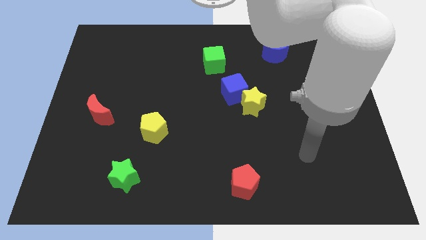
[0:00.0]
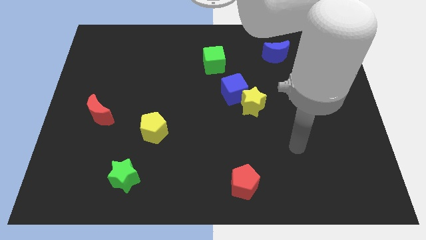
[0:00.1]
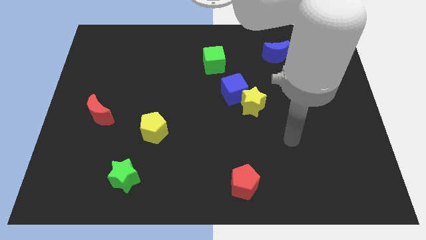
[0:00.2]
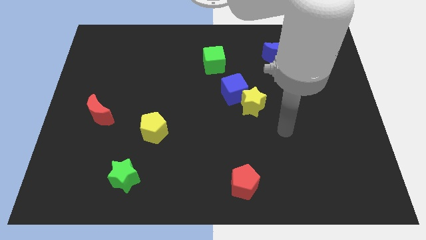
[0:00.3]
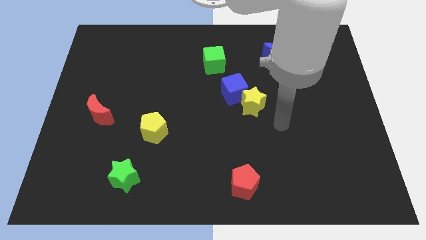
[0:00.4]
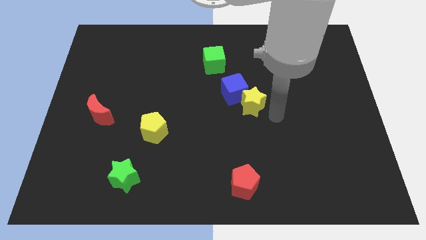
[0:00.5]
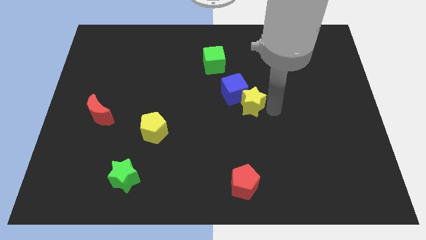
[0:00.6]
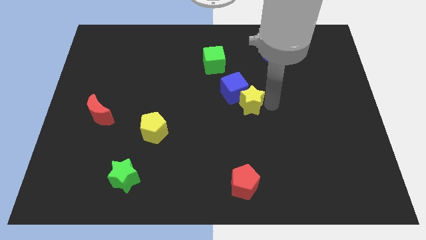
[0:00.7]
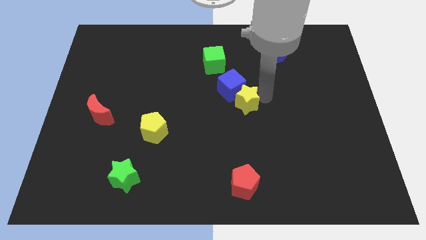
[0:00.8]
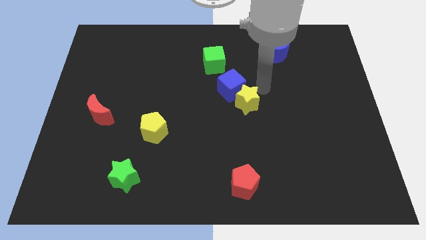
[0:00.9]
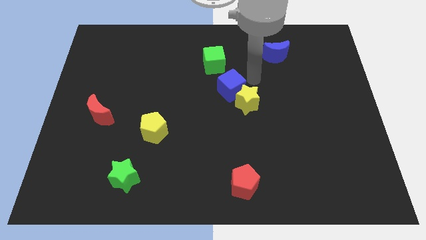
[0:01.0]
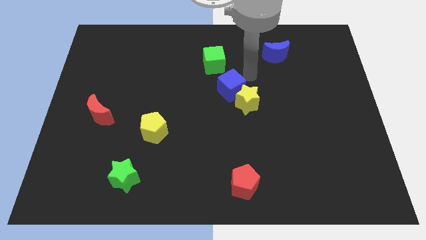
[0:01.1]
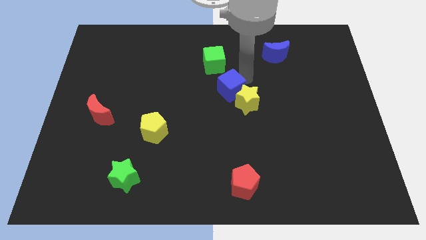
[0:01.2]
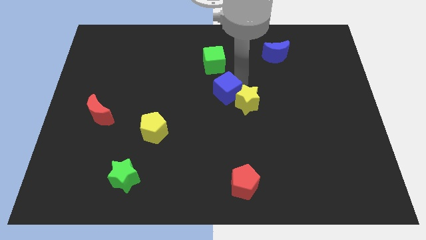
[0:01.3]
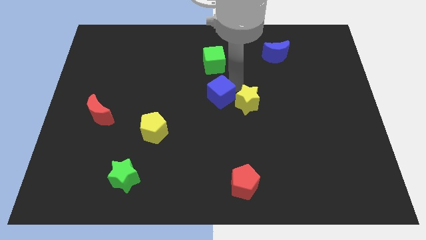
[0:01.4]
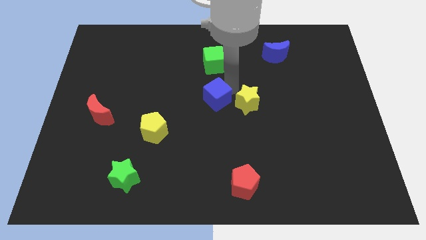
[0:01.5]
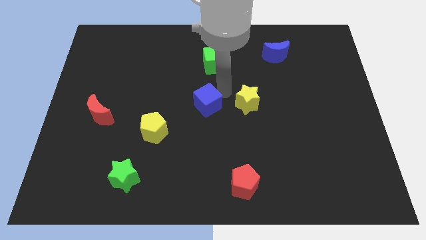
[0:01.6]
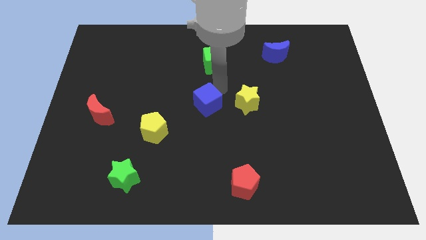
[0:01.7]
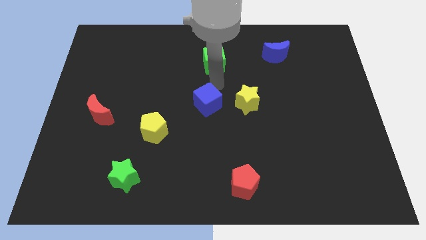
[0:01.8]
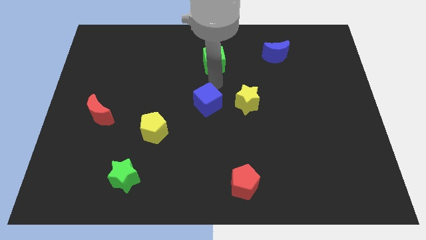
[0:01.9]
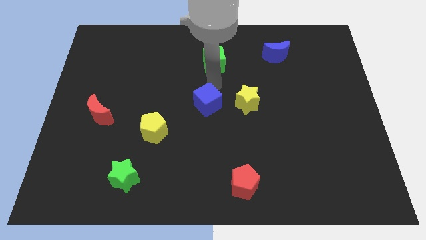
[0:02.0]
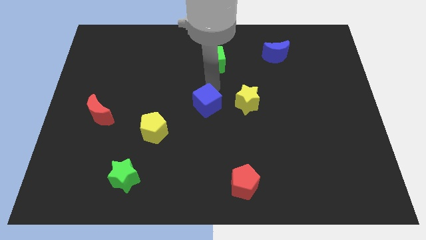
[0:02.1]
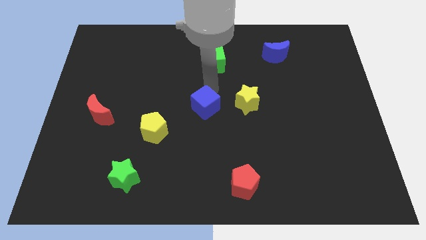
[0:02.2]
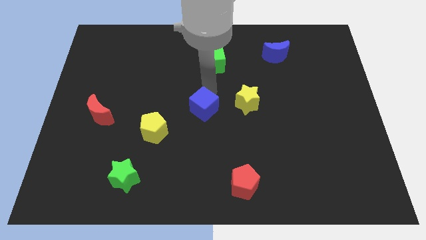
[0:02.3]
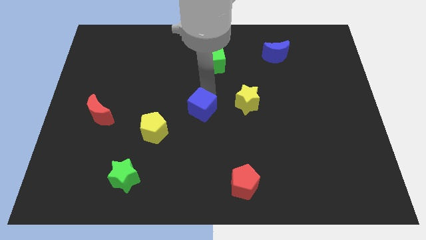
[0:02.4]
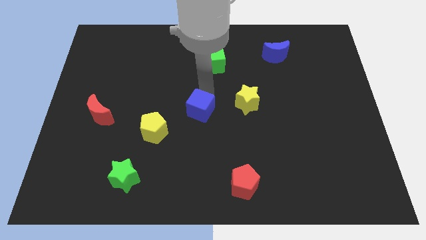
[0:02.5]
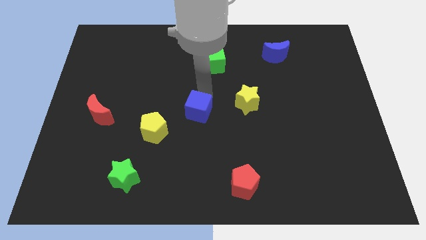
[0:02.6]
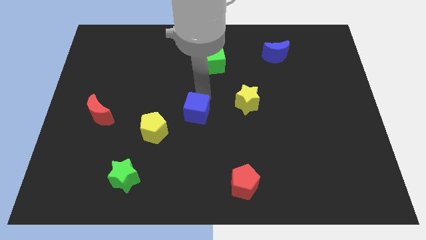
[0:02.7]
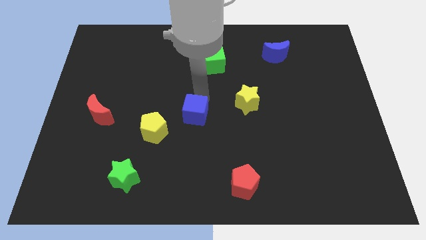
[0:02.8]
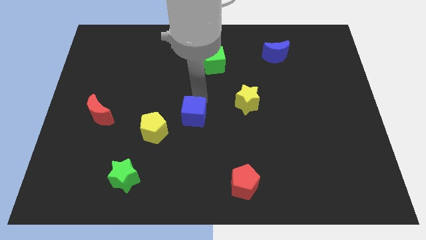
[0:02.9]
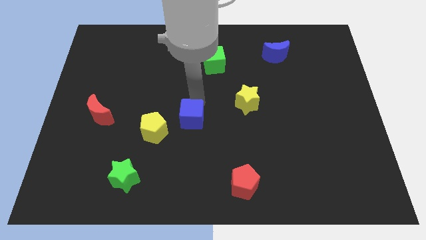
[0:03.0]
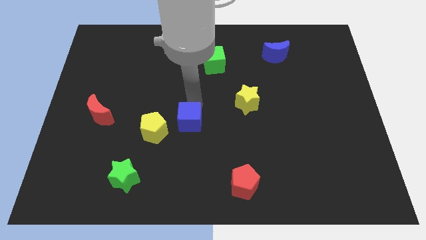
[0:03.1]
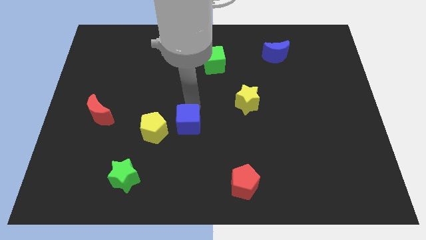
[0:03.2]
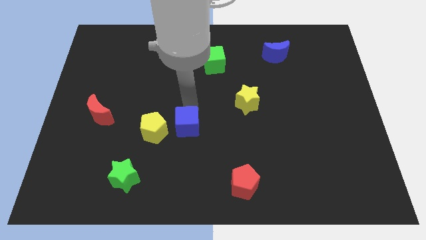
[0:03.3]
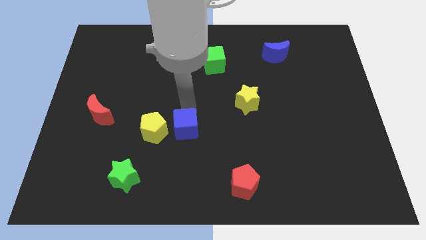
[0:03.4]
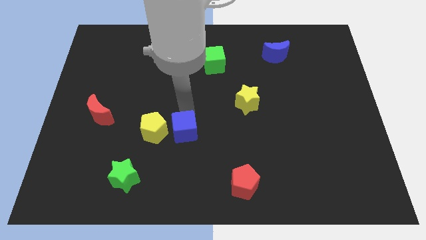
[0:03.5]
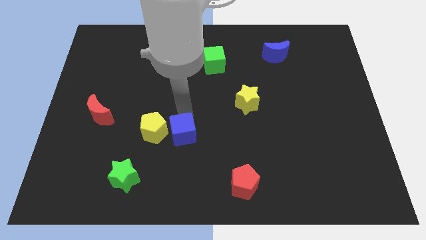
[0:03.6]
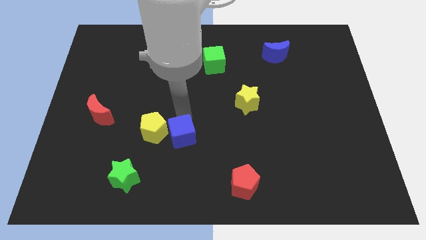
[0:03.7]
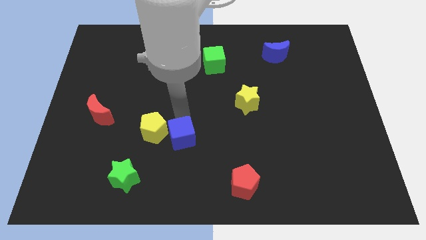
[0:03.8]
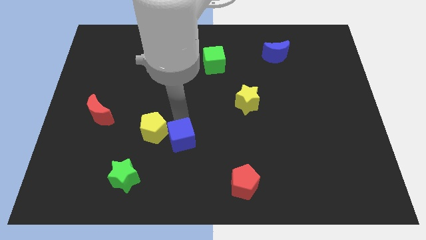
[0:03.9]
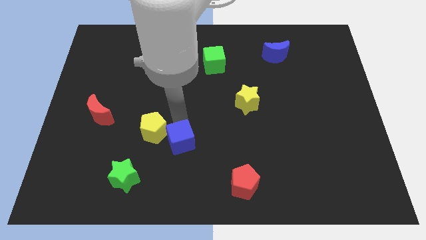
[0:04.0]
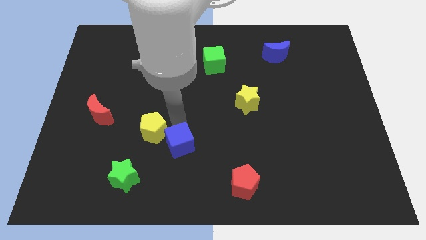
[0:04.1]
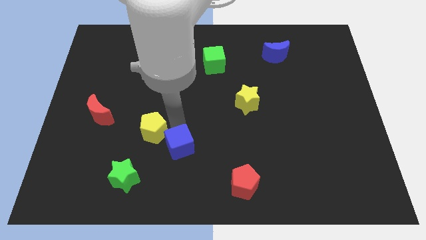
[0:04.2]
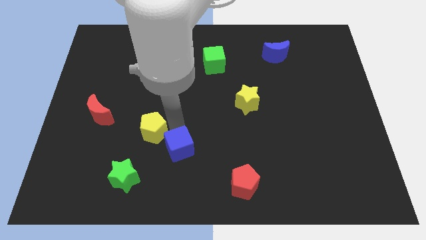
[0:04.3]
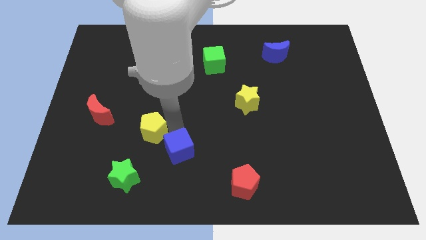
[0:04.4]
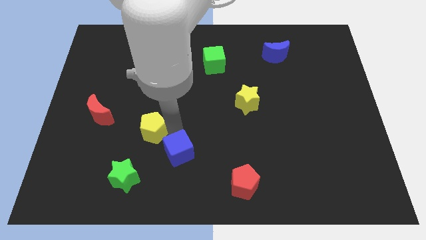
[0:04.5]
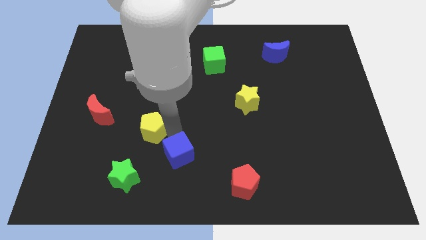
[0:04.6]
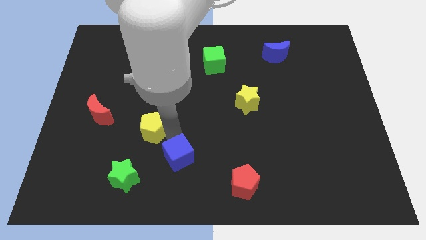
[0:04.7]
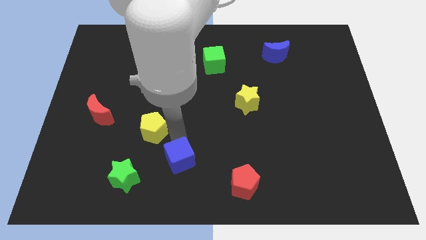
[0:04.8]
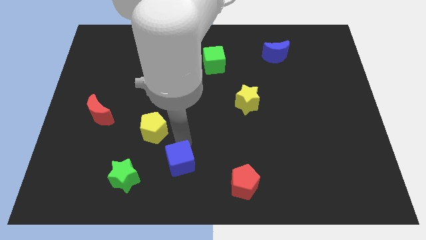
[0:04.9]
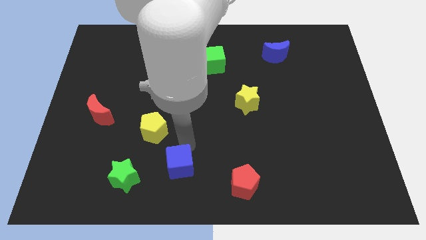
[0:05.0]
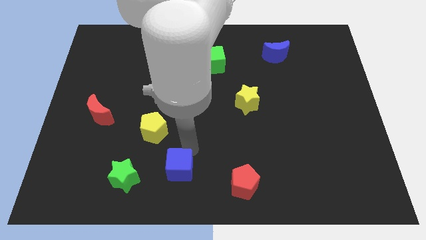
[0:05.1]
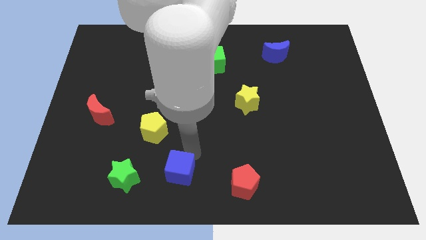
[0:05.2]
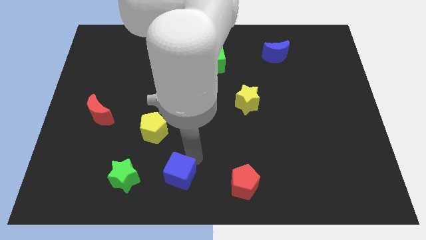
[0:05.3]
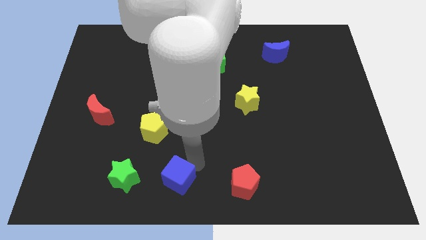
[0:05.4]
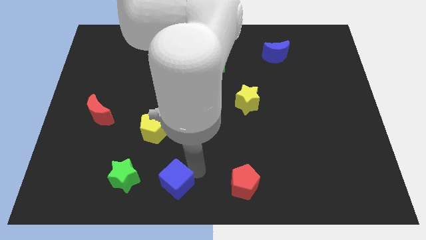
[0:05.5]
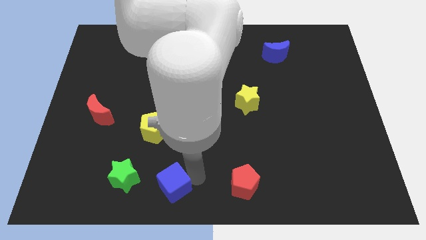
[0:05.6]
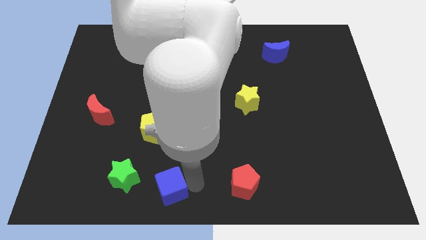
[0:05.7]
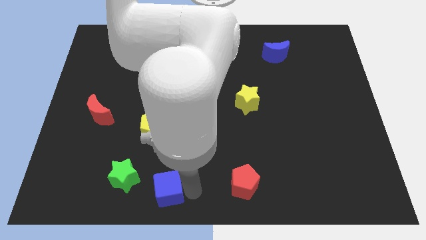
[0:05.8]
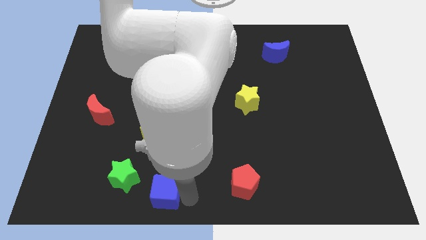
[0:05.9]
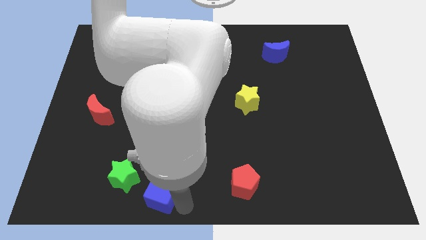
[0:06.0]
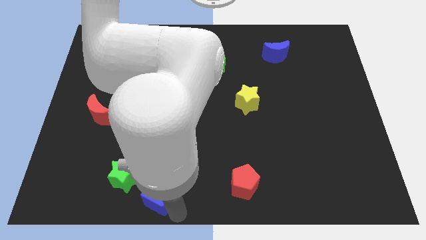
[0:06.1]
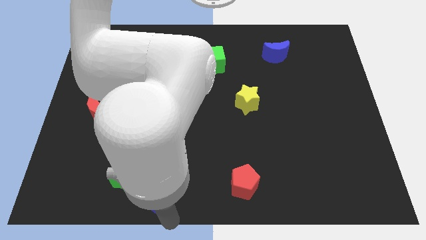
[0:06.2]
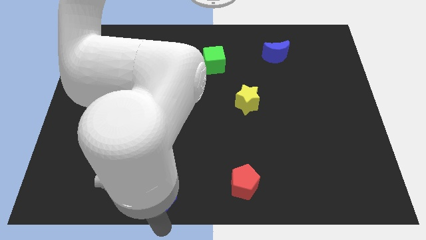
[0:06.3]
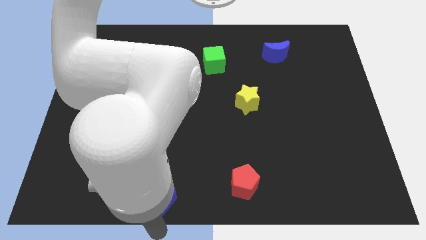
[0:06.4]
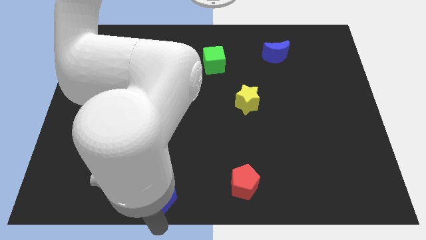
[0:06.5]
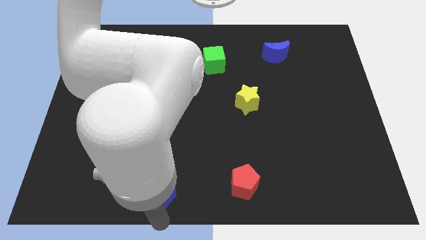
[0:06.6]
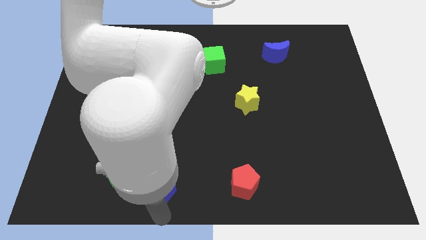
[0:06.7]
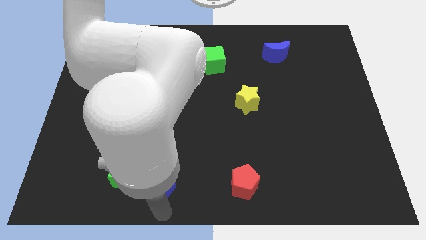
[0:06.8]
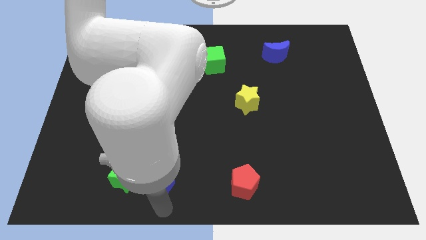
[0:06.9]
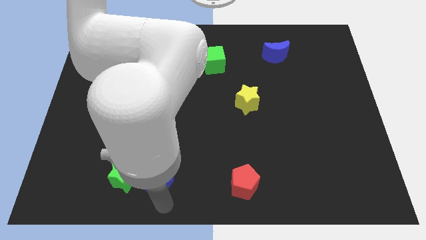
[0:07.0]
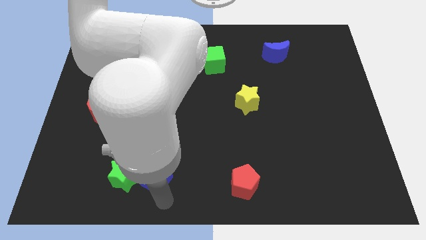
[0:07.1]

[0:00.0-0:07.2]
push the blue cube close to the green star
